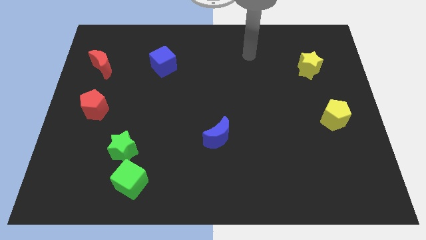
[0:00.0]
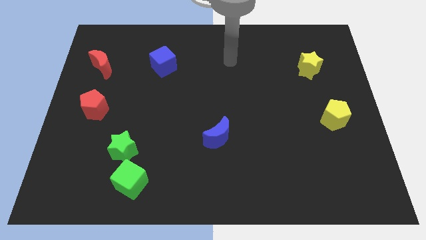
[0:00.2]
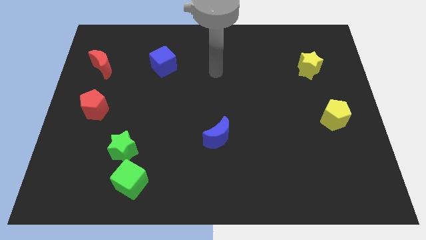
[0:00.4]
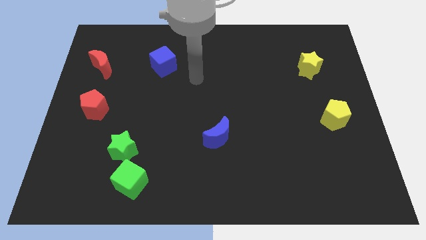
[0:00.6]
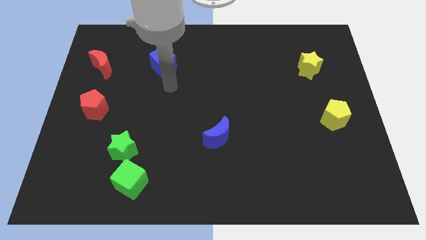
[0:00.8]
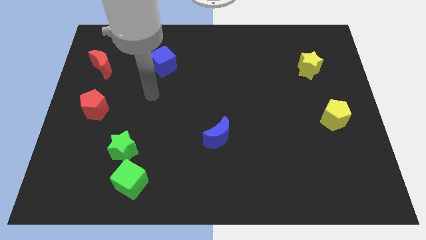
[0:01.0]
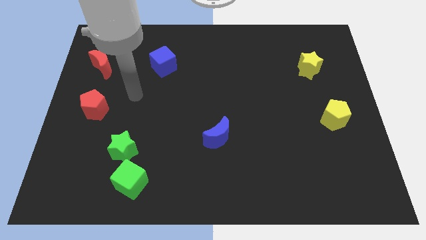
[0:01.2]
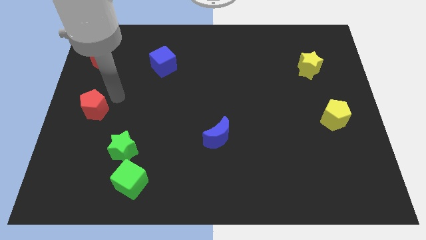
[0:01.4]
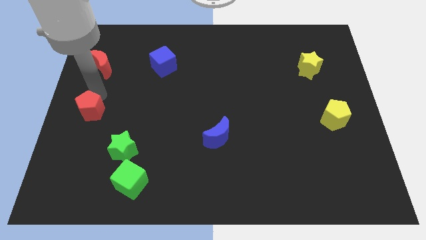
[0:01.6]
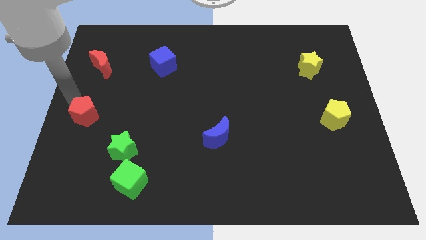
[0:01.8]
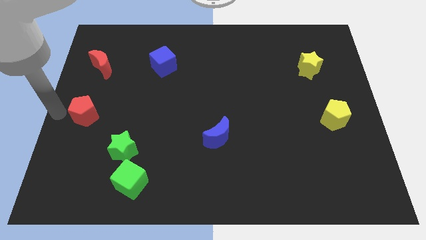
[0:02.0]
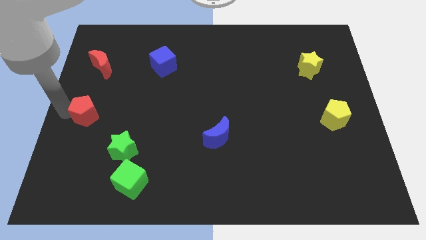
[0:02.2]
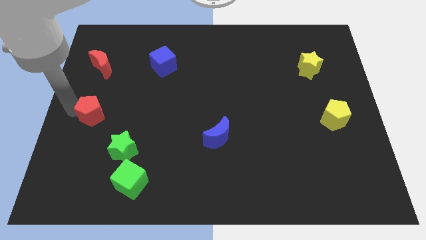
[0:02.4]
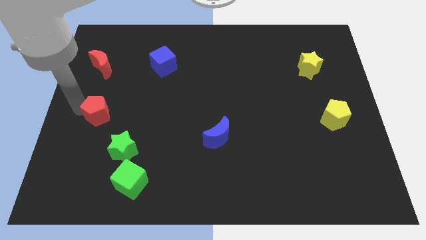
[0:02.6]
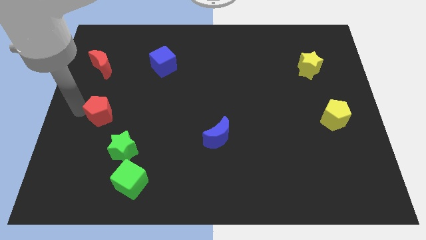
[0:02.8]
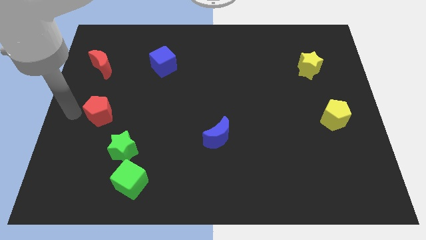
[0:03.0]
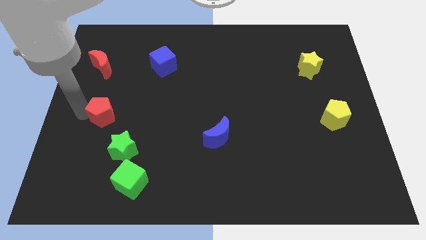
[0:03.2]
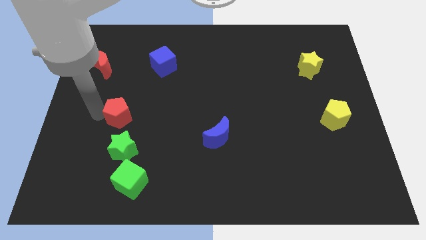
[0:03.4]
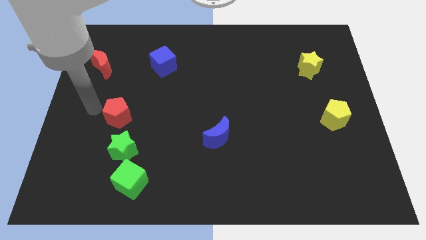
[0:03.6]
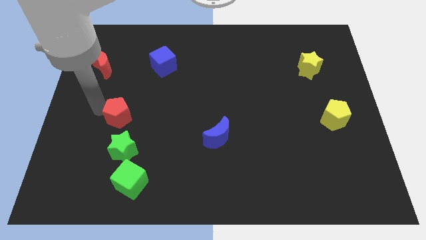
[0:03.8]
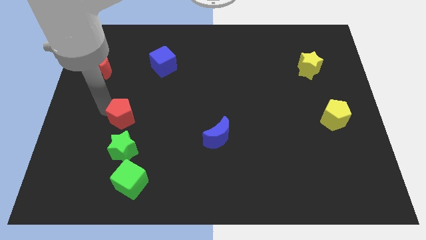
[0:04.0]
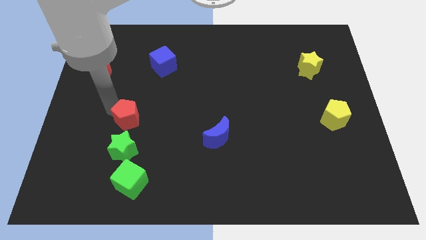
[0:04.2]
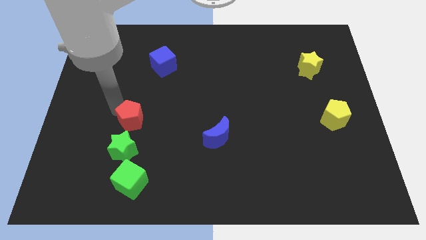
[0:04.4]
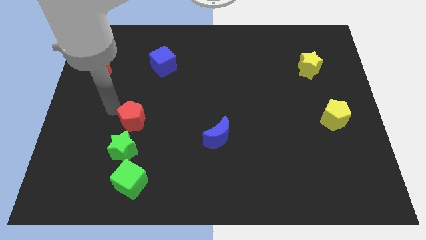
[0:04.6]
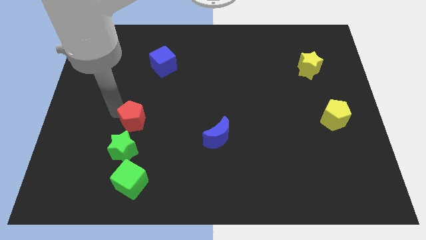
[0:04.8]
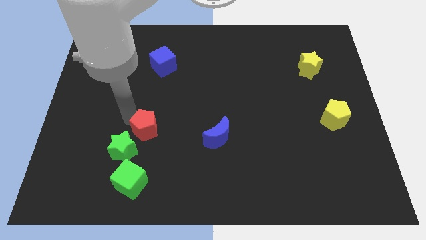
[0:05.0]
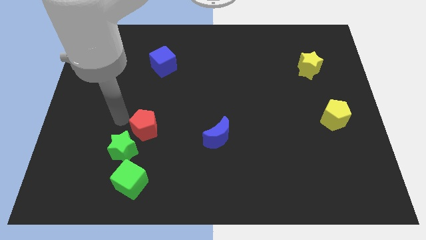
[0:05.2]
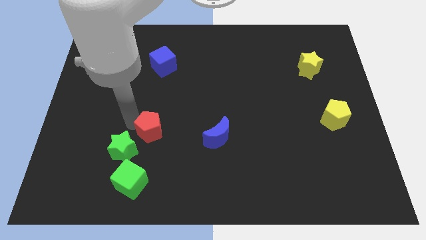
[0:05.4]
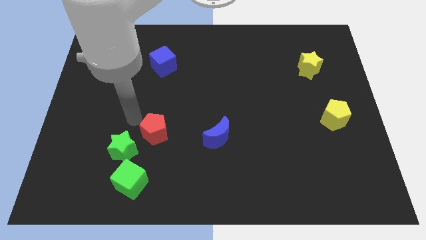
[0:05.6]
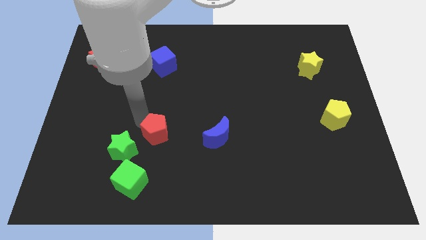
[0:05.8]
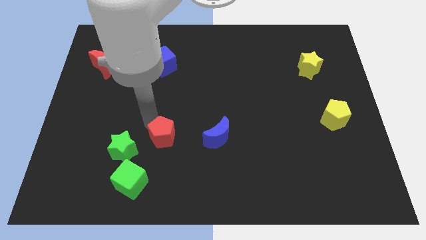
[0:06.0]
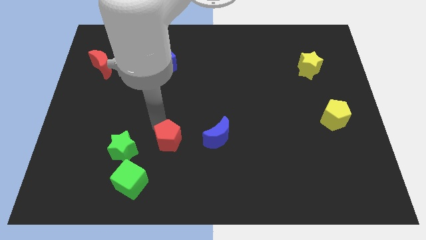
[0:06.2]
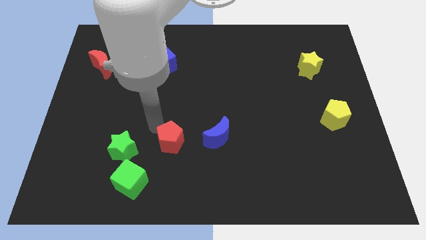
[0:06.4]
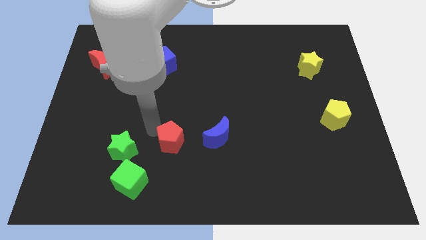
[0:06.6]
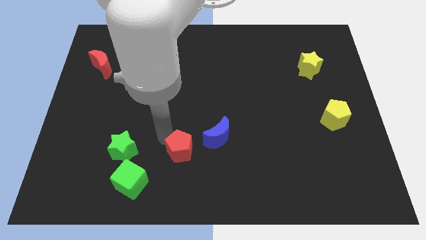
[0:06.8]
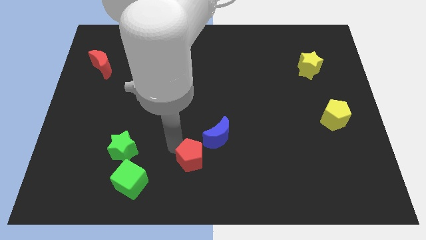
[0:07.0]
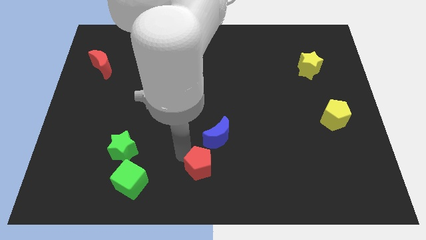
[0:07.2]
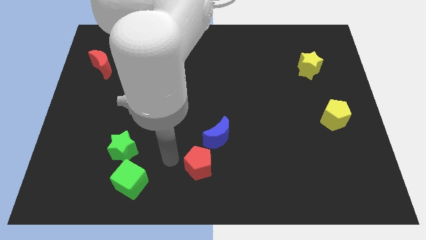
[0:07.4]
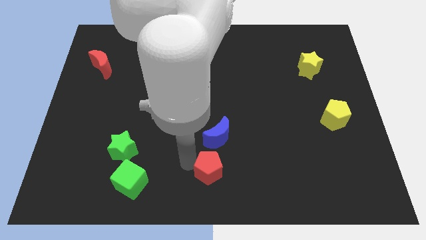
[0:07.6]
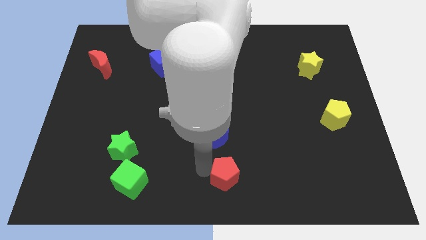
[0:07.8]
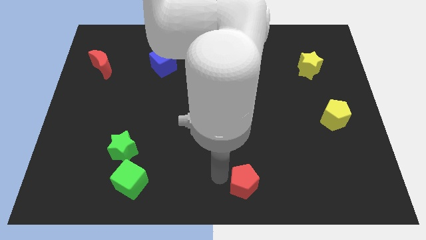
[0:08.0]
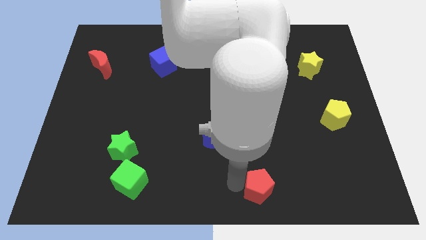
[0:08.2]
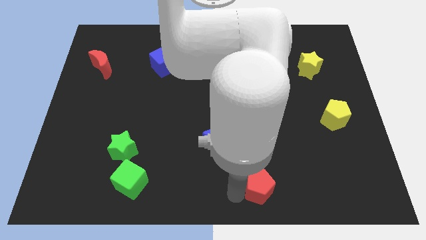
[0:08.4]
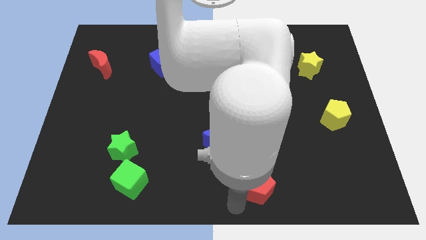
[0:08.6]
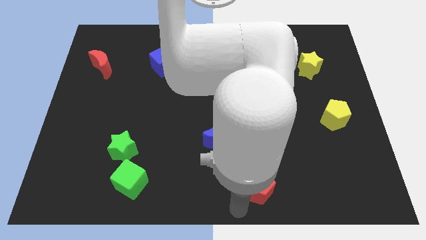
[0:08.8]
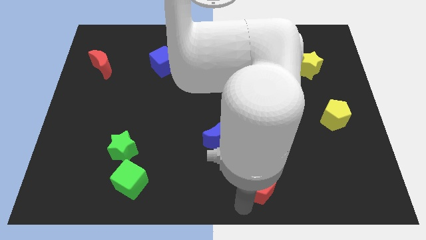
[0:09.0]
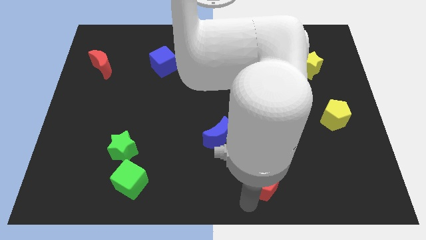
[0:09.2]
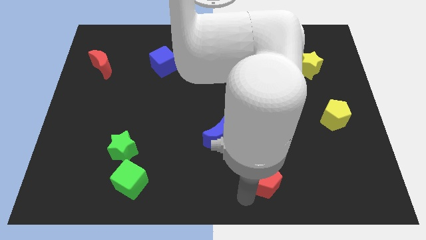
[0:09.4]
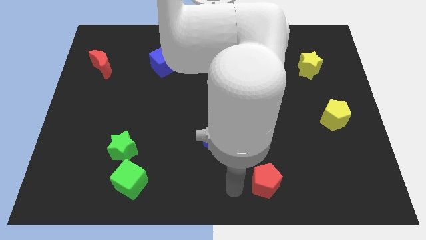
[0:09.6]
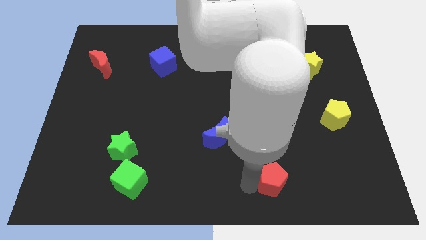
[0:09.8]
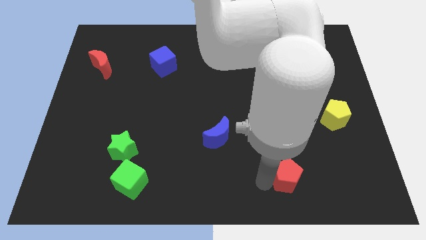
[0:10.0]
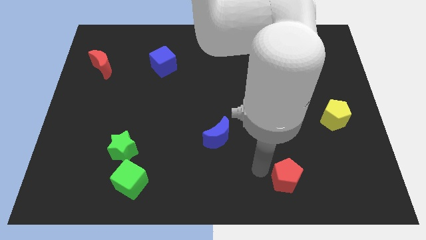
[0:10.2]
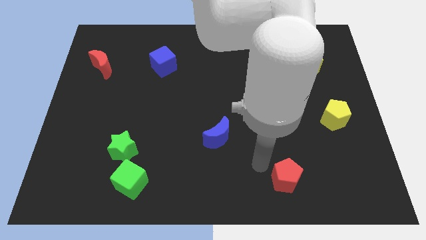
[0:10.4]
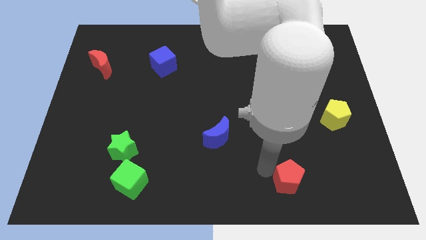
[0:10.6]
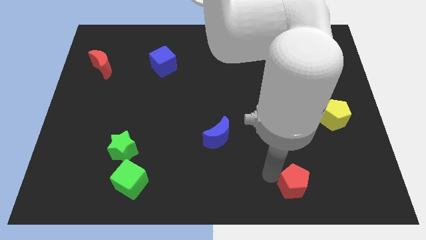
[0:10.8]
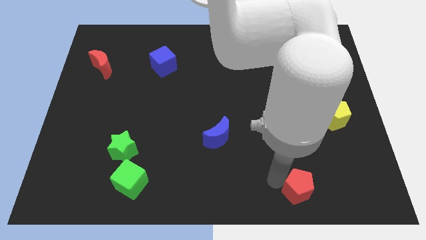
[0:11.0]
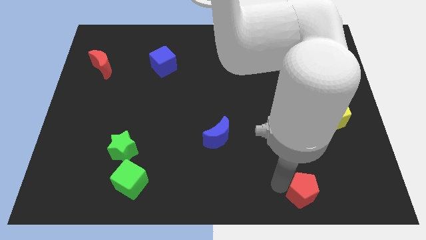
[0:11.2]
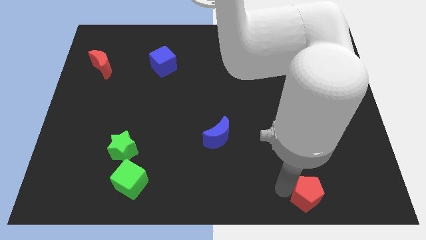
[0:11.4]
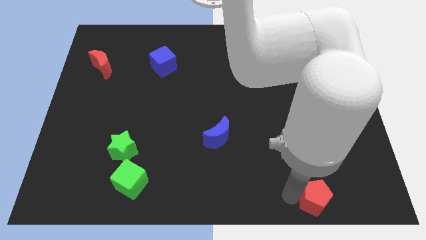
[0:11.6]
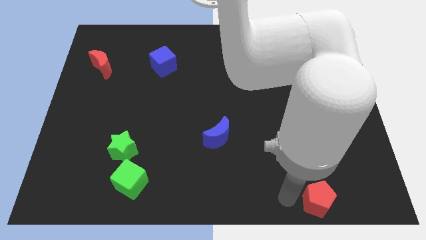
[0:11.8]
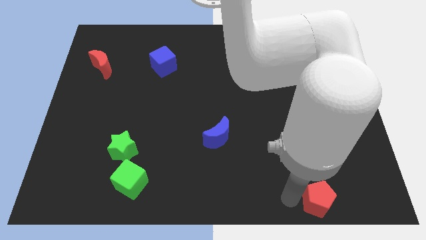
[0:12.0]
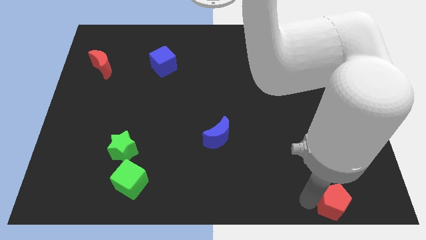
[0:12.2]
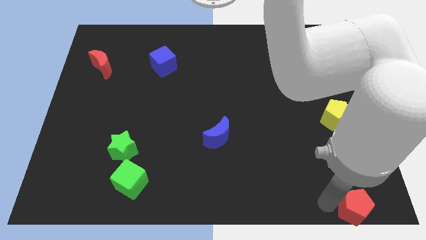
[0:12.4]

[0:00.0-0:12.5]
move the red pentagon to the bottom right

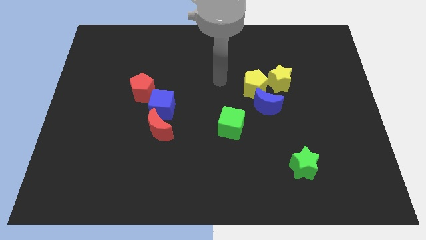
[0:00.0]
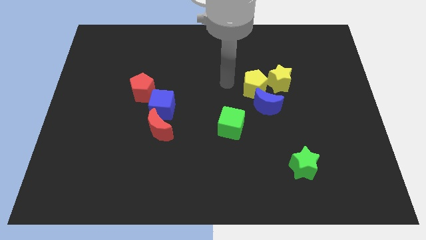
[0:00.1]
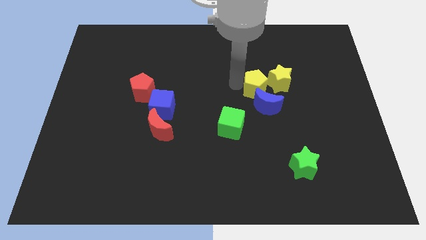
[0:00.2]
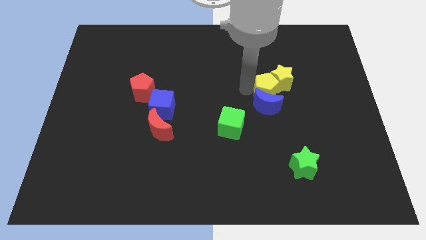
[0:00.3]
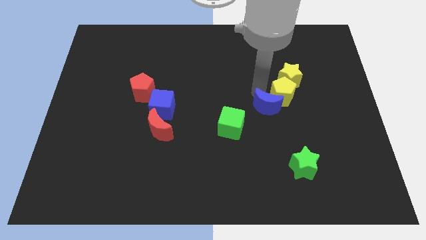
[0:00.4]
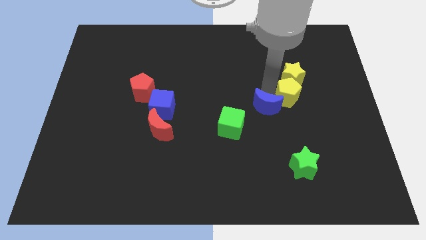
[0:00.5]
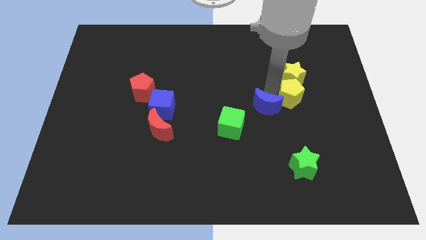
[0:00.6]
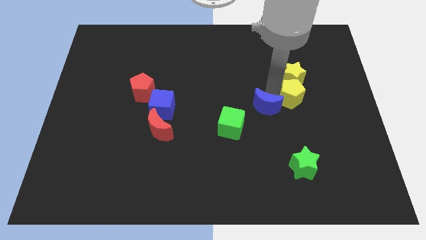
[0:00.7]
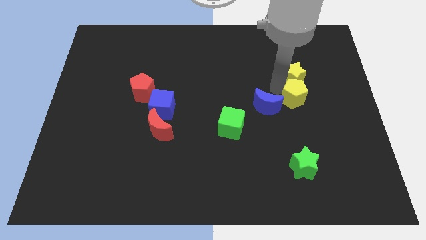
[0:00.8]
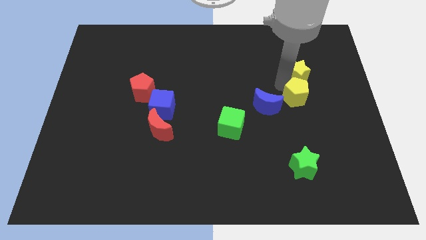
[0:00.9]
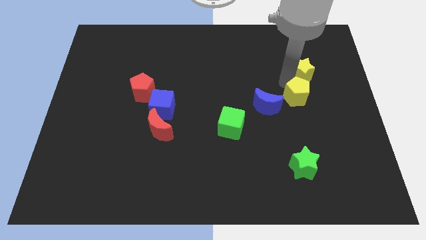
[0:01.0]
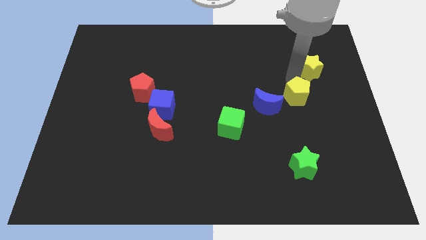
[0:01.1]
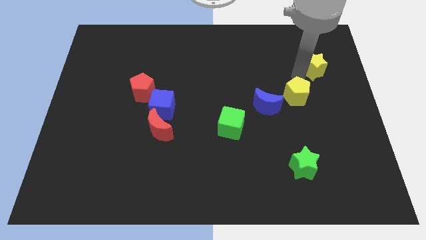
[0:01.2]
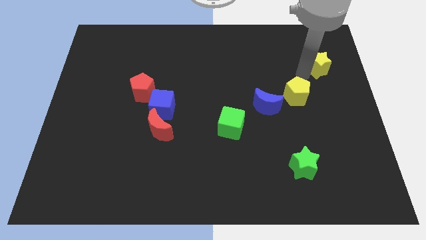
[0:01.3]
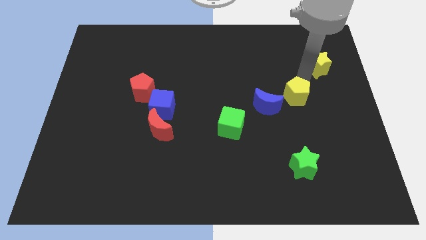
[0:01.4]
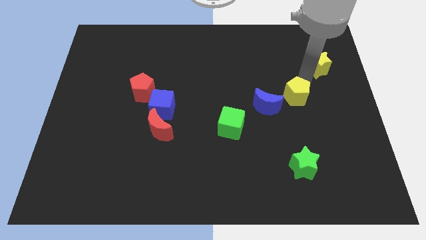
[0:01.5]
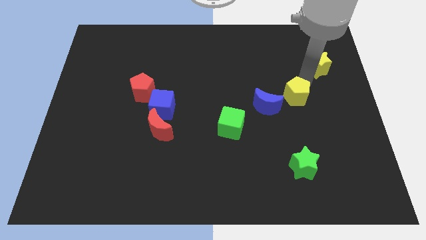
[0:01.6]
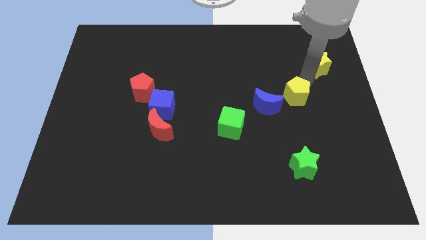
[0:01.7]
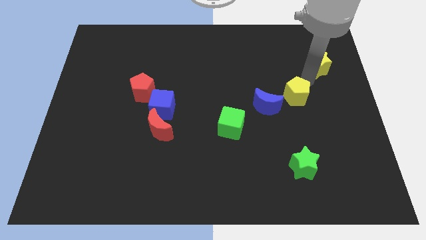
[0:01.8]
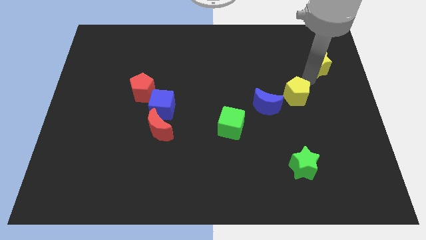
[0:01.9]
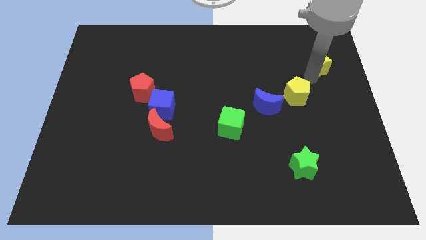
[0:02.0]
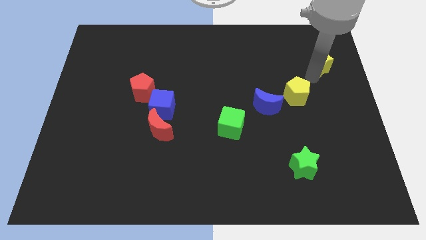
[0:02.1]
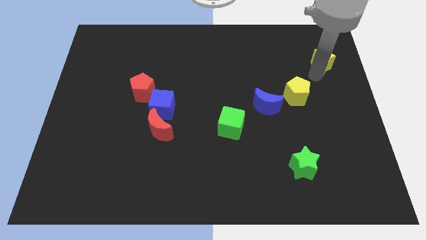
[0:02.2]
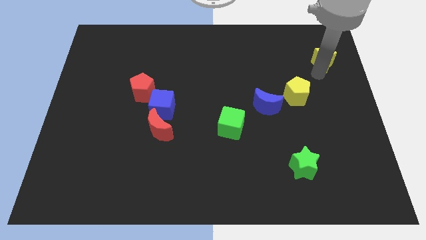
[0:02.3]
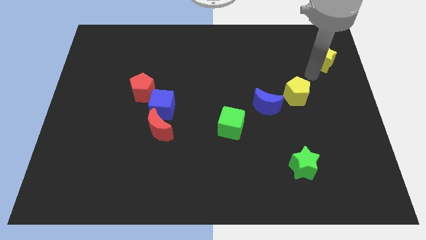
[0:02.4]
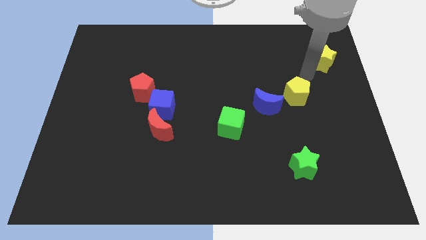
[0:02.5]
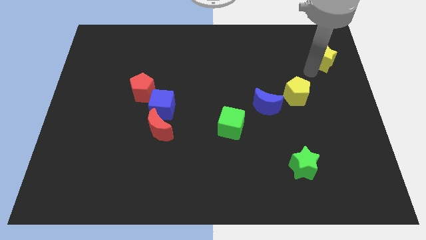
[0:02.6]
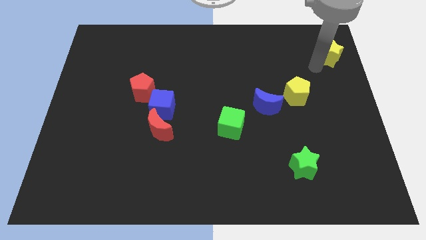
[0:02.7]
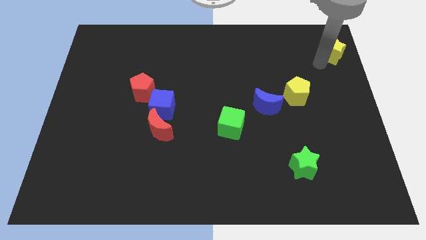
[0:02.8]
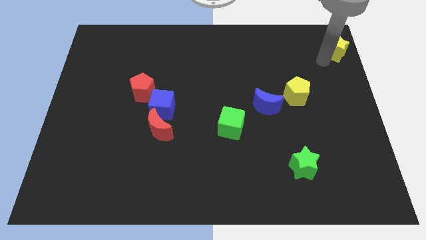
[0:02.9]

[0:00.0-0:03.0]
put the yellow star to the top right corner
